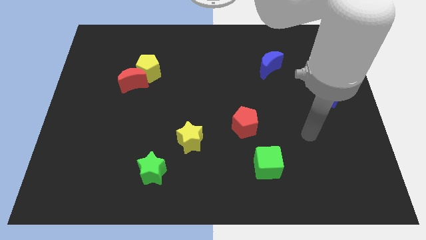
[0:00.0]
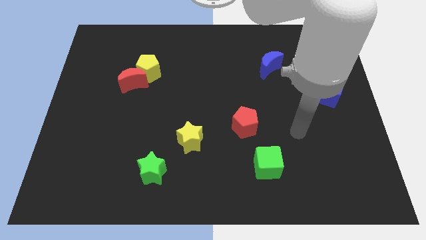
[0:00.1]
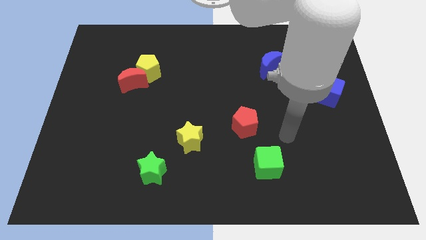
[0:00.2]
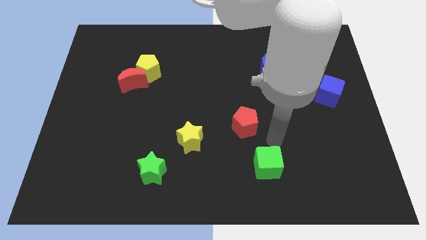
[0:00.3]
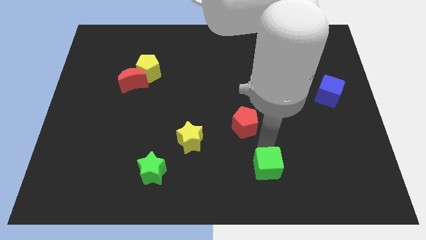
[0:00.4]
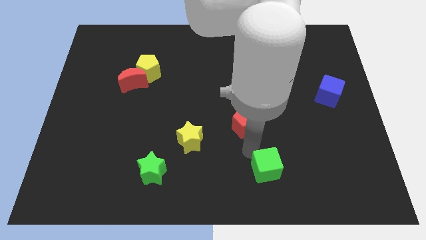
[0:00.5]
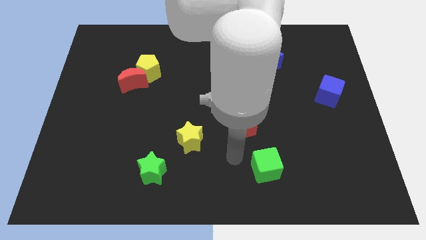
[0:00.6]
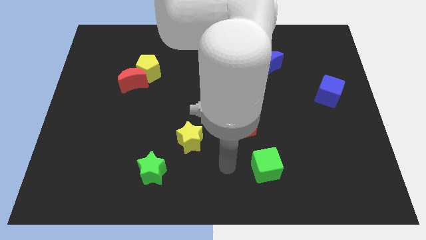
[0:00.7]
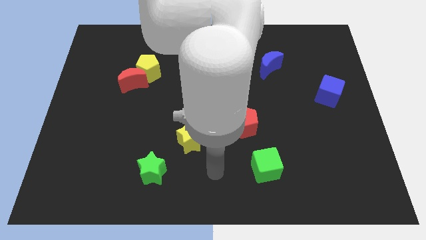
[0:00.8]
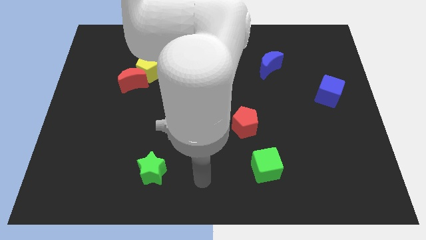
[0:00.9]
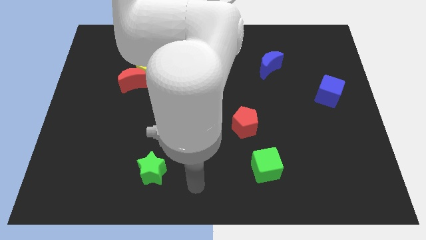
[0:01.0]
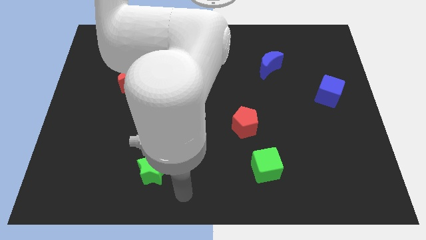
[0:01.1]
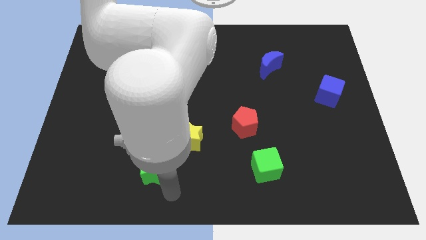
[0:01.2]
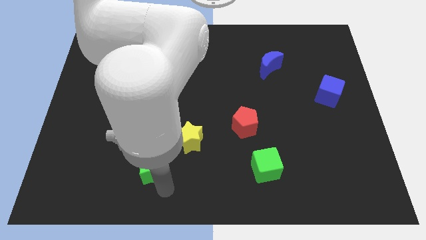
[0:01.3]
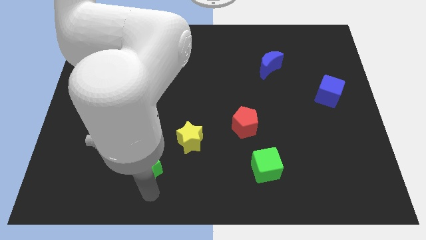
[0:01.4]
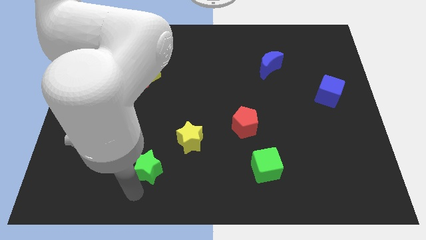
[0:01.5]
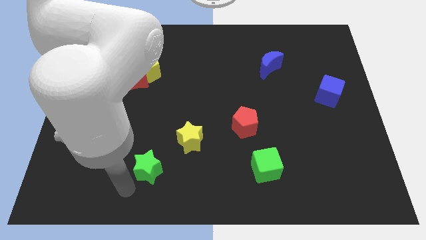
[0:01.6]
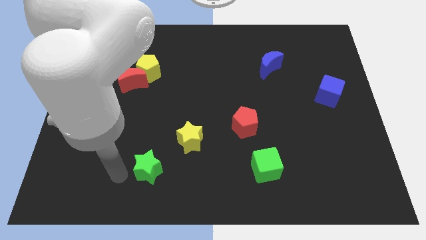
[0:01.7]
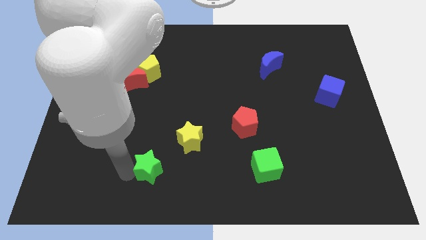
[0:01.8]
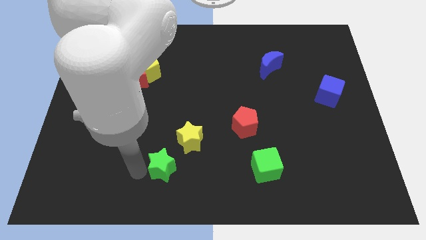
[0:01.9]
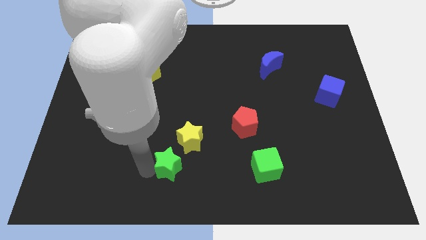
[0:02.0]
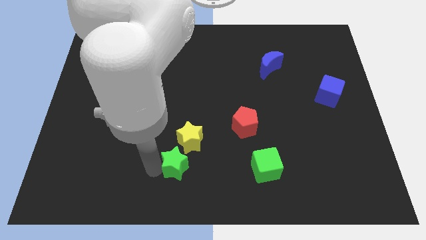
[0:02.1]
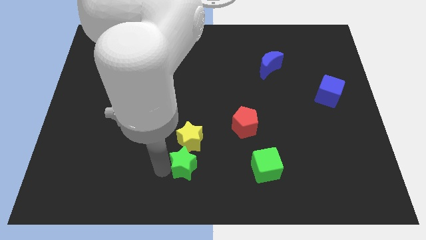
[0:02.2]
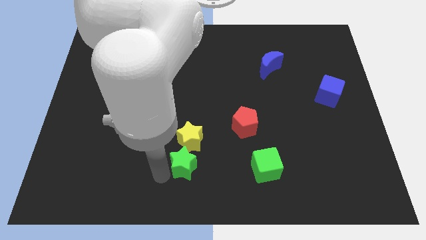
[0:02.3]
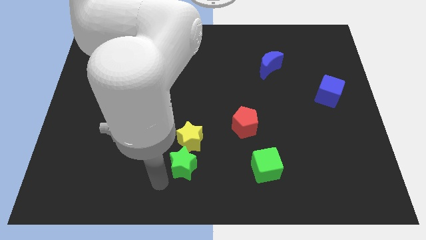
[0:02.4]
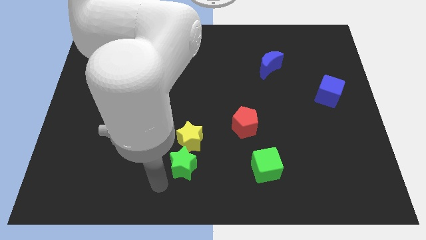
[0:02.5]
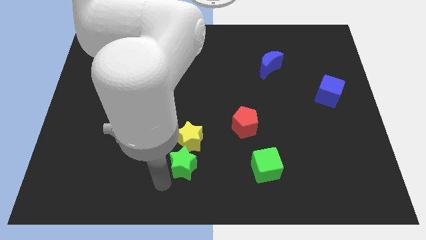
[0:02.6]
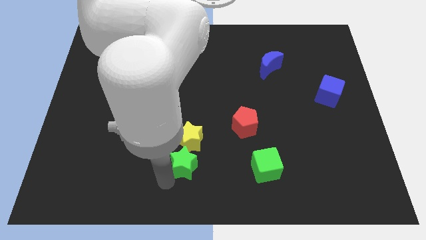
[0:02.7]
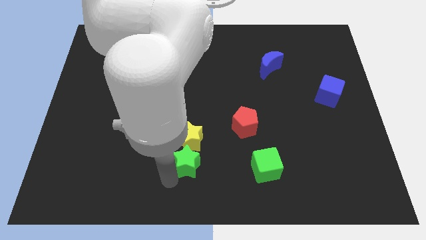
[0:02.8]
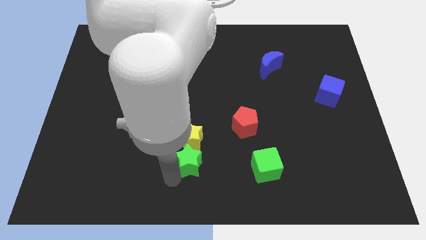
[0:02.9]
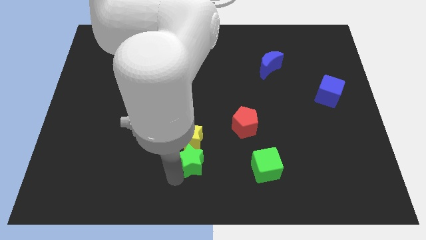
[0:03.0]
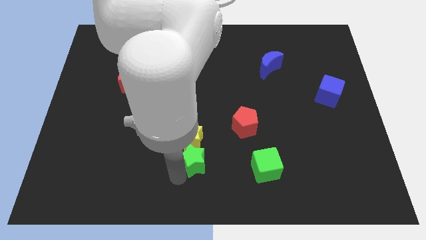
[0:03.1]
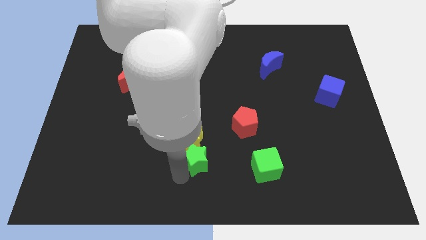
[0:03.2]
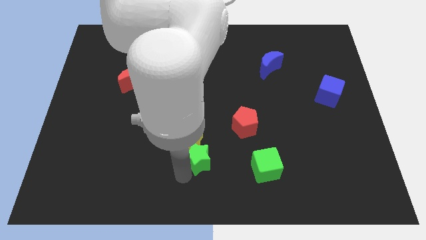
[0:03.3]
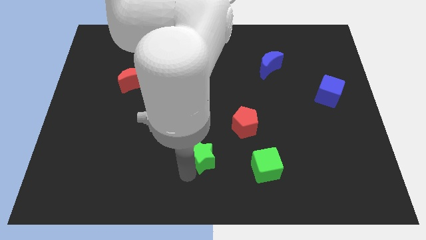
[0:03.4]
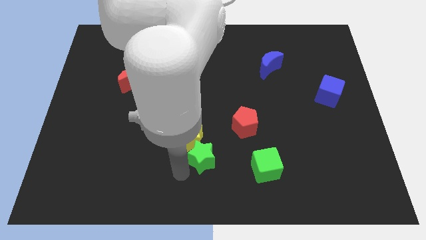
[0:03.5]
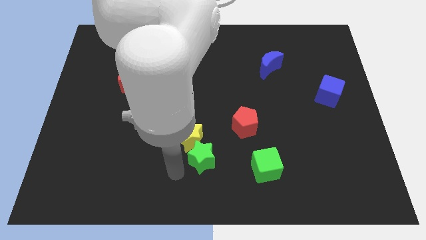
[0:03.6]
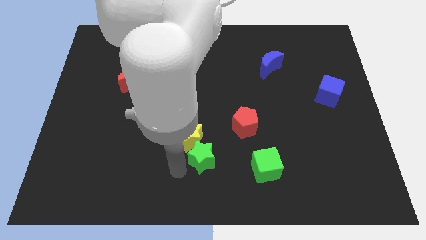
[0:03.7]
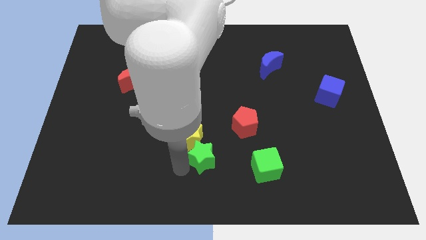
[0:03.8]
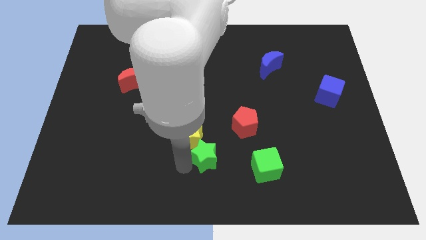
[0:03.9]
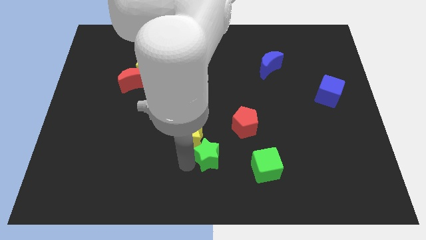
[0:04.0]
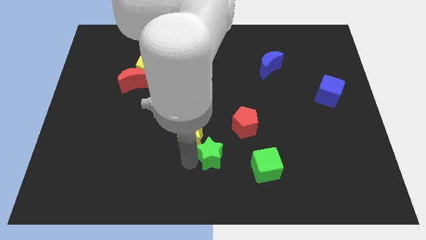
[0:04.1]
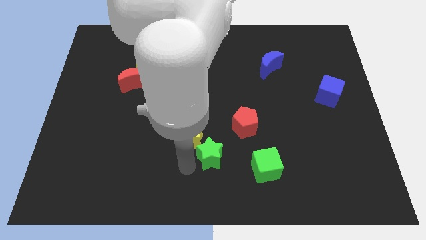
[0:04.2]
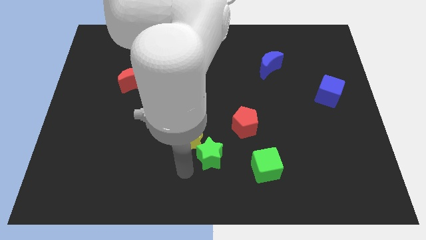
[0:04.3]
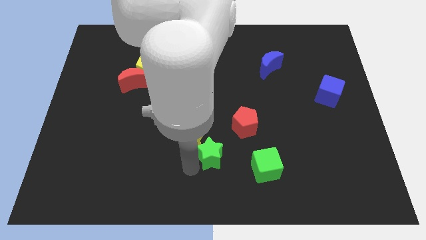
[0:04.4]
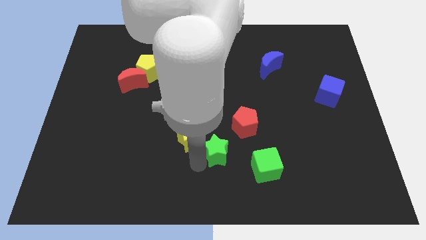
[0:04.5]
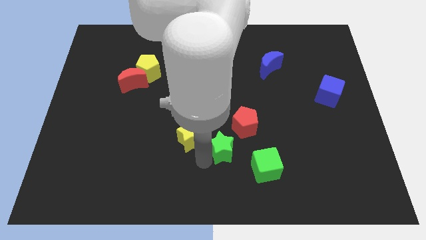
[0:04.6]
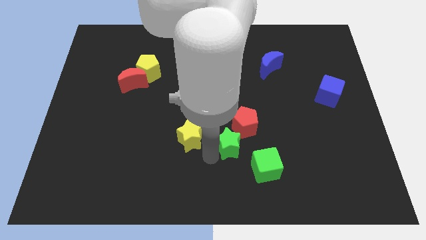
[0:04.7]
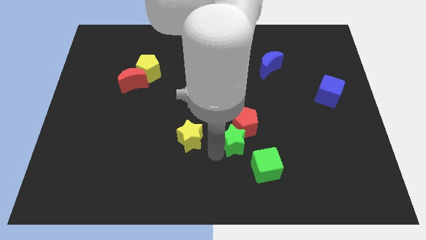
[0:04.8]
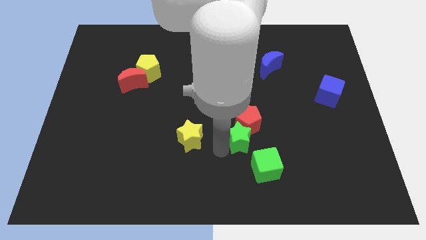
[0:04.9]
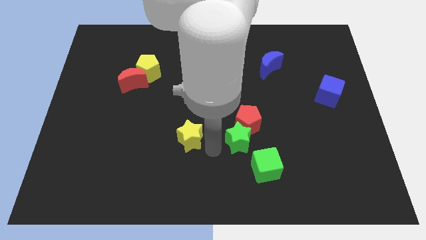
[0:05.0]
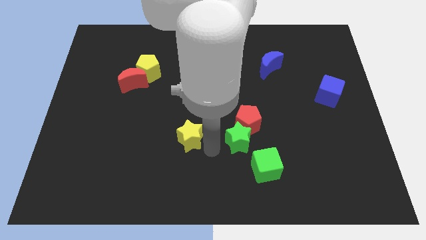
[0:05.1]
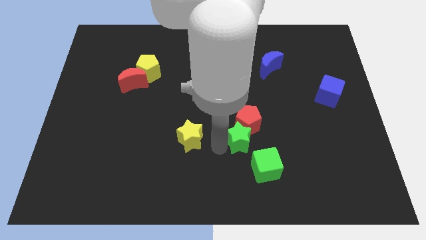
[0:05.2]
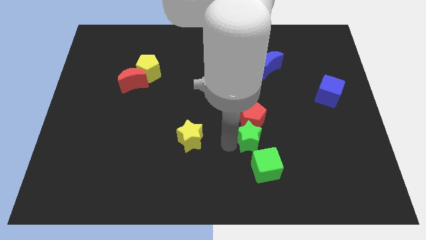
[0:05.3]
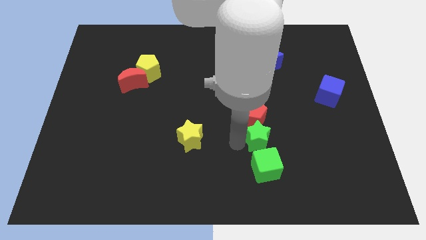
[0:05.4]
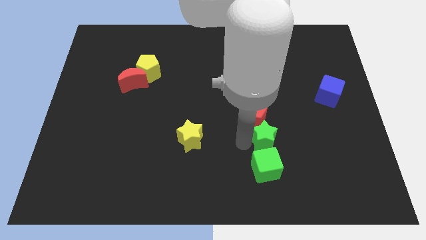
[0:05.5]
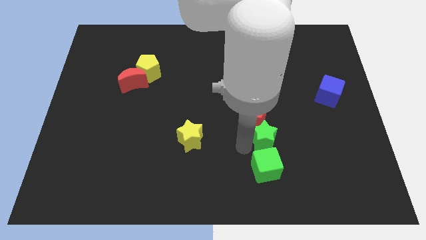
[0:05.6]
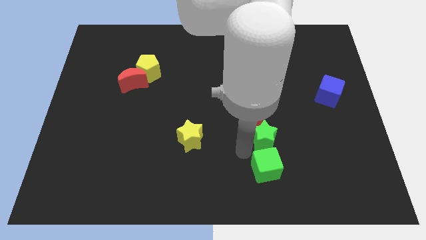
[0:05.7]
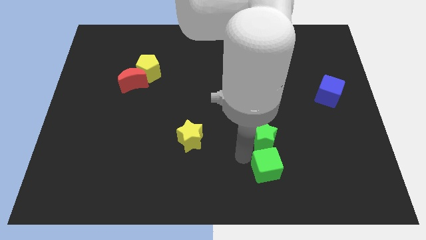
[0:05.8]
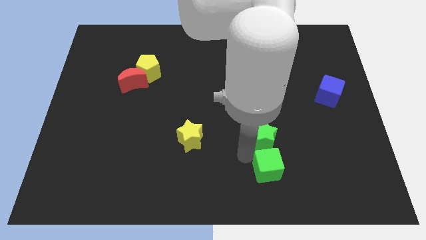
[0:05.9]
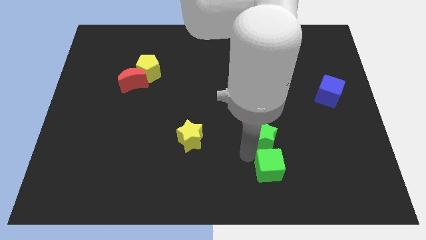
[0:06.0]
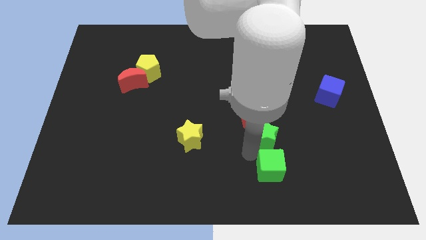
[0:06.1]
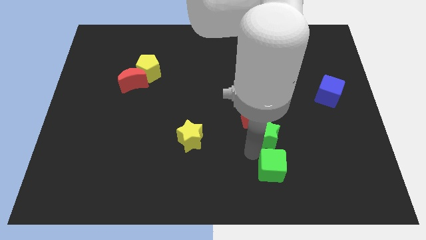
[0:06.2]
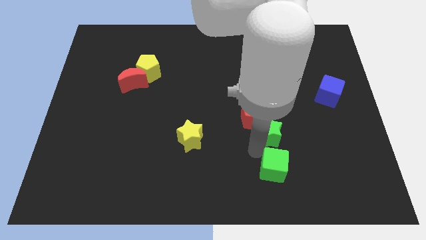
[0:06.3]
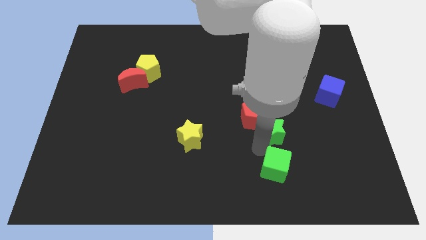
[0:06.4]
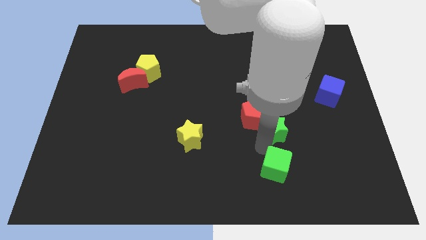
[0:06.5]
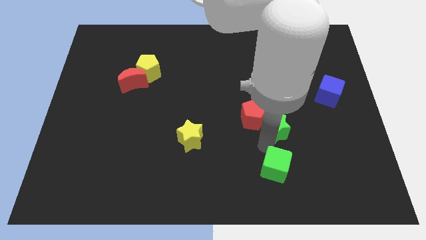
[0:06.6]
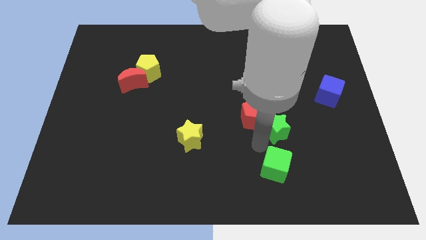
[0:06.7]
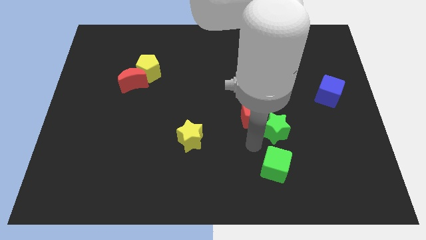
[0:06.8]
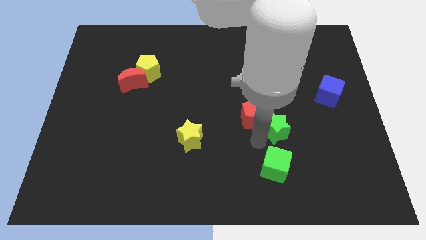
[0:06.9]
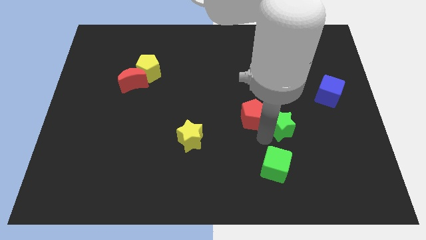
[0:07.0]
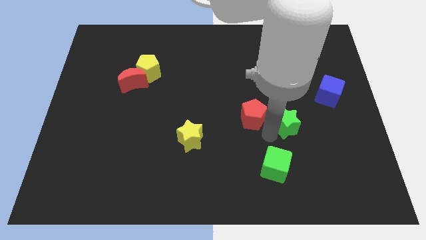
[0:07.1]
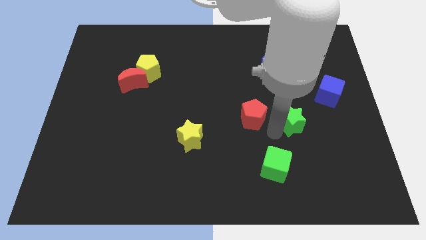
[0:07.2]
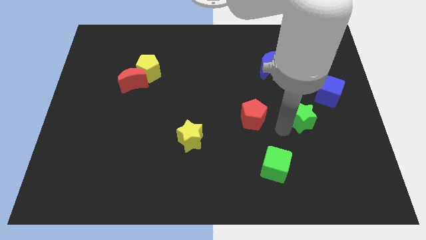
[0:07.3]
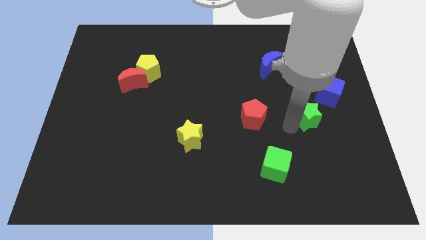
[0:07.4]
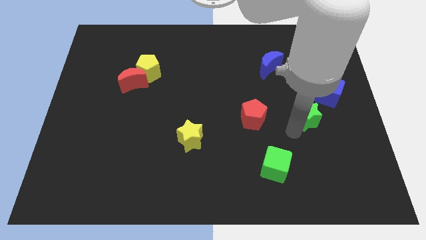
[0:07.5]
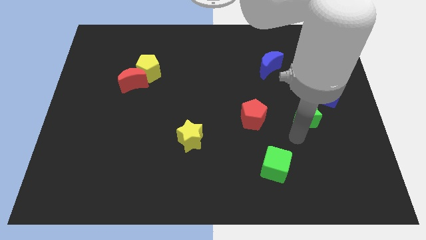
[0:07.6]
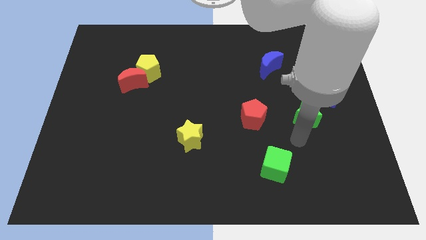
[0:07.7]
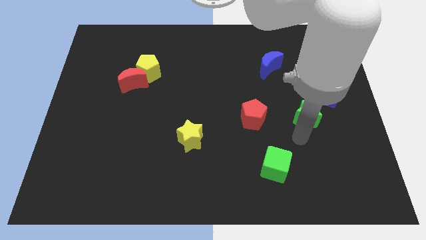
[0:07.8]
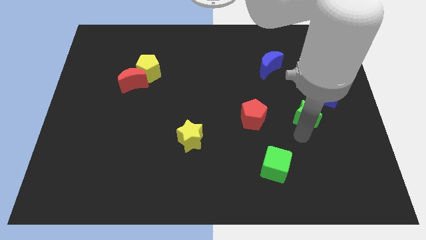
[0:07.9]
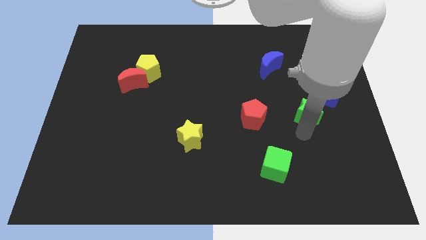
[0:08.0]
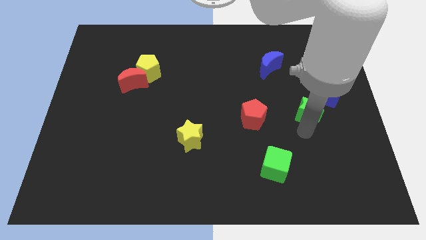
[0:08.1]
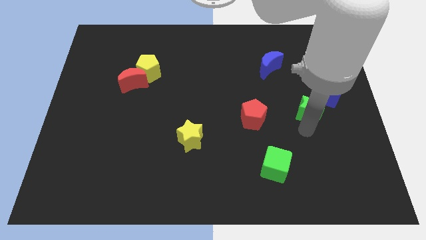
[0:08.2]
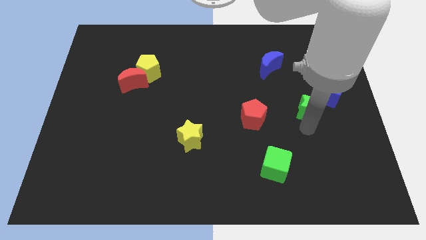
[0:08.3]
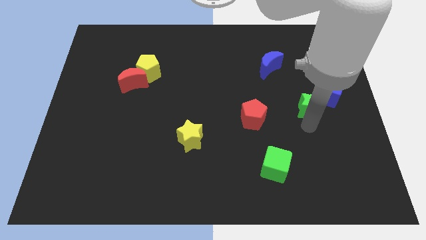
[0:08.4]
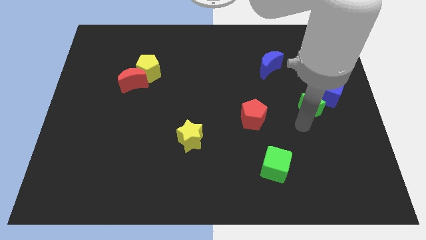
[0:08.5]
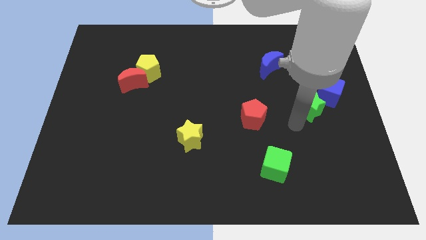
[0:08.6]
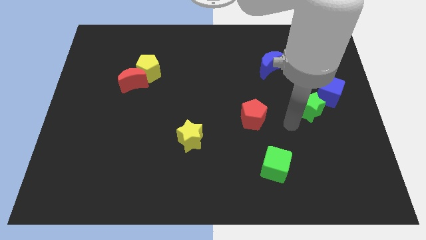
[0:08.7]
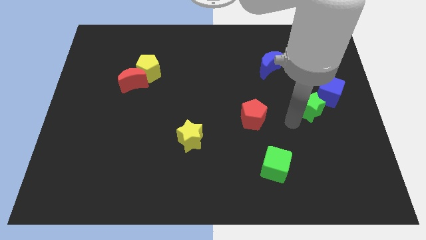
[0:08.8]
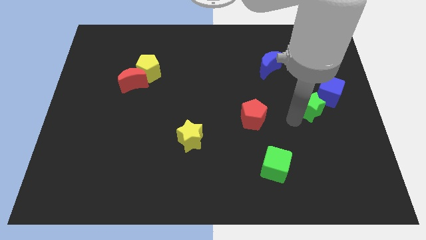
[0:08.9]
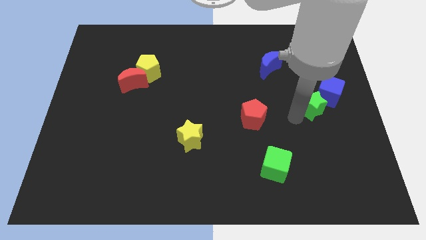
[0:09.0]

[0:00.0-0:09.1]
put the green star close to the blue cube
